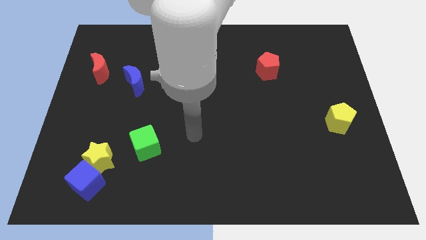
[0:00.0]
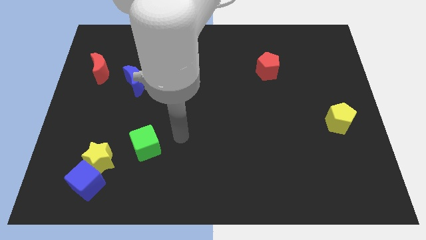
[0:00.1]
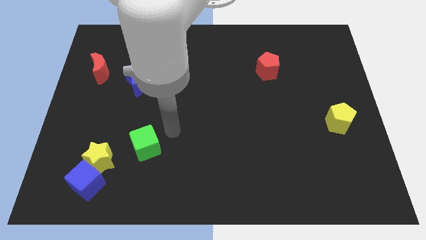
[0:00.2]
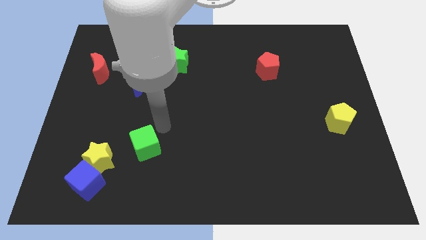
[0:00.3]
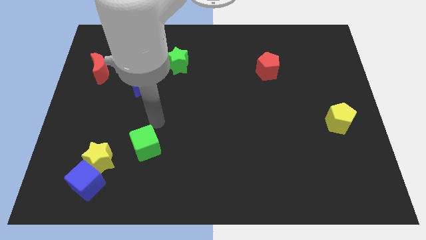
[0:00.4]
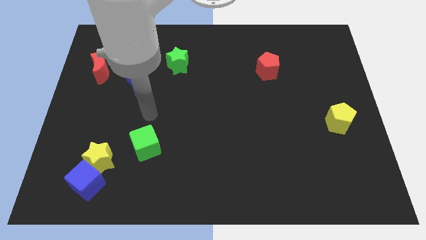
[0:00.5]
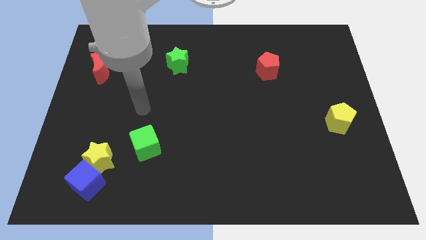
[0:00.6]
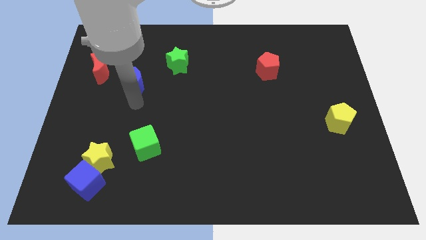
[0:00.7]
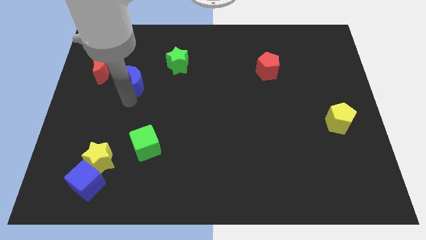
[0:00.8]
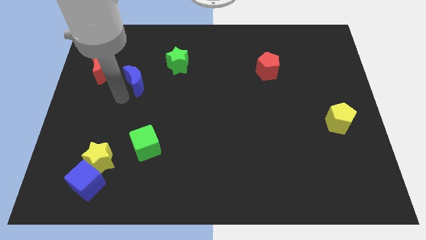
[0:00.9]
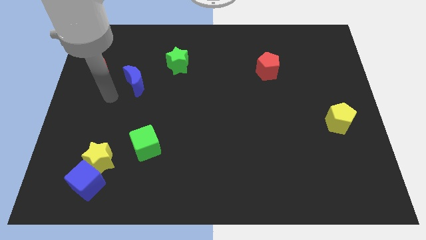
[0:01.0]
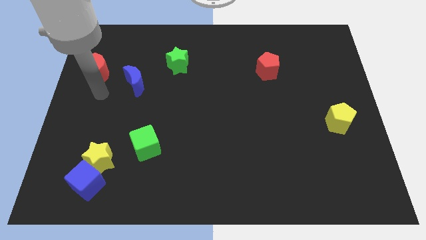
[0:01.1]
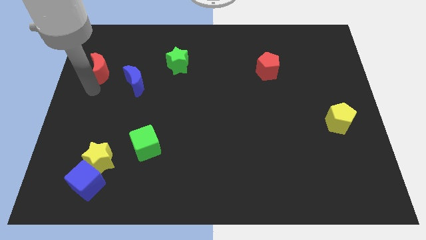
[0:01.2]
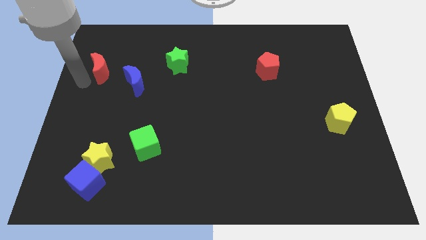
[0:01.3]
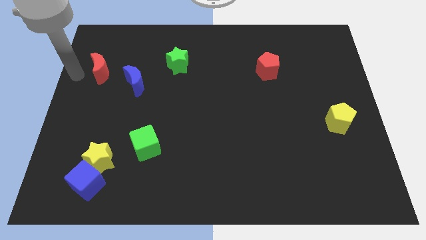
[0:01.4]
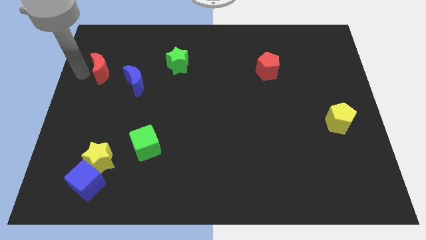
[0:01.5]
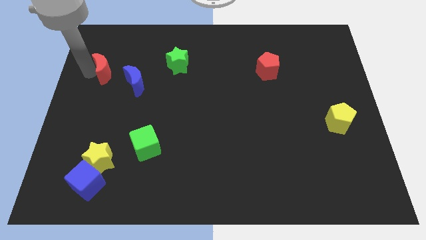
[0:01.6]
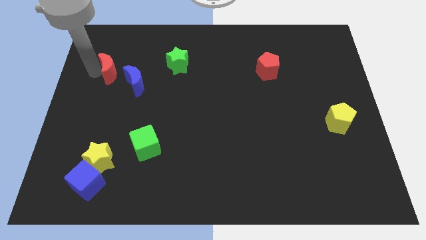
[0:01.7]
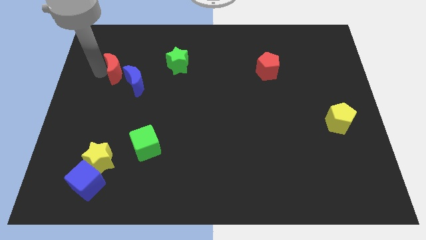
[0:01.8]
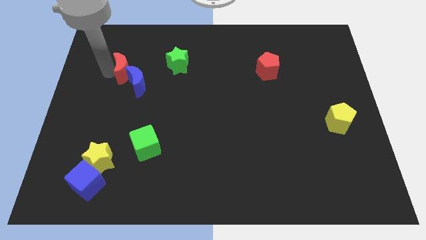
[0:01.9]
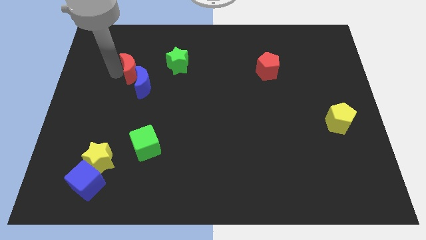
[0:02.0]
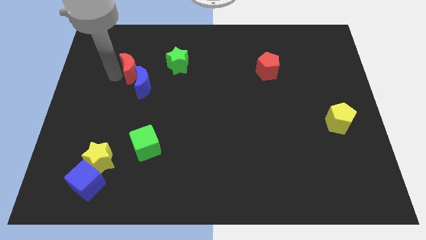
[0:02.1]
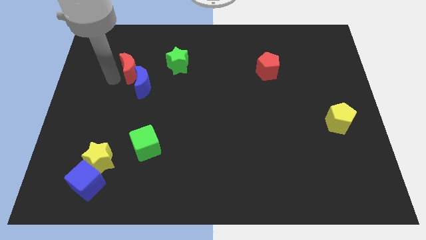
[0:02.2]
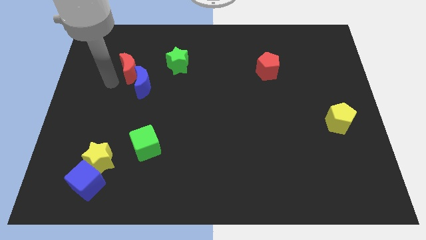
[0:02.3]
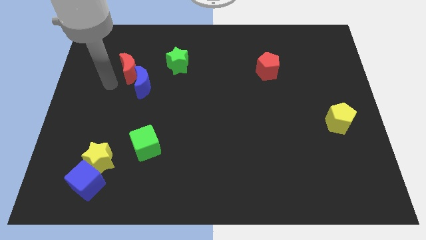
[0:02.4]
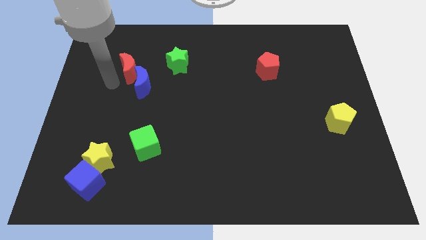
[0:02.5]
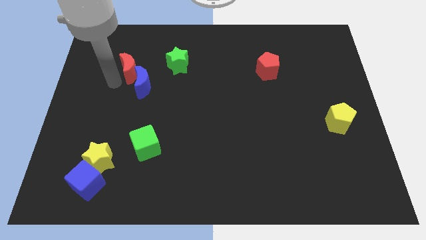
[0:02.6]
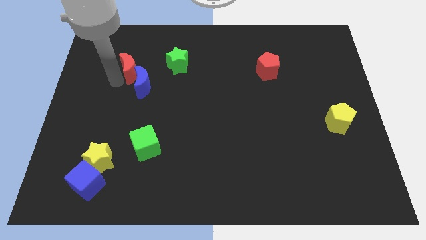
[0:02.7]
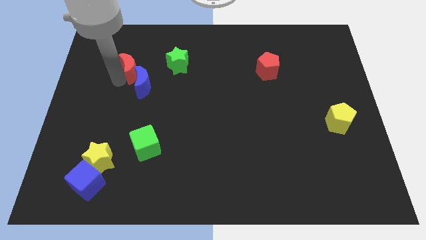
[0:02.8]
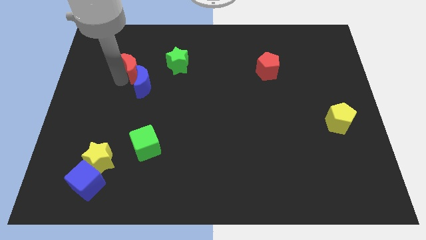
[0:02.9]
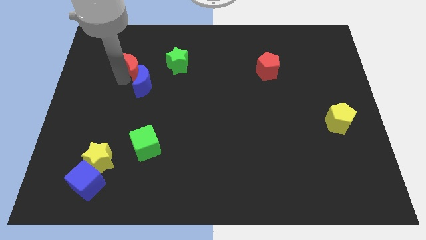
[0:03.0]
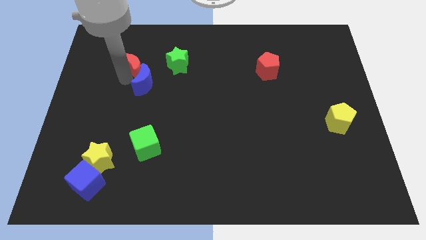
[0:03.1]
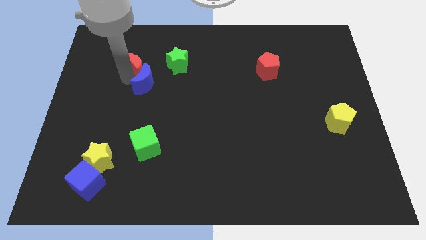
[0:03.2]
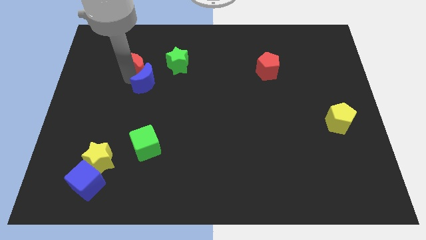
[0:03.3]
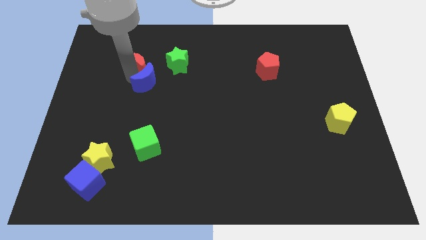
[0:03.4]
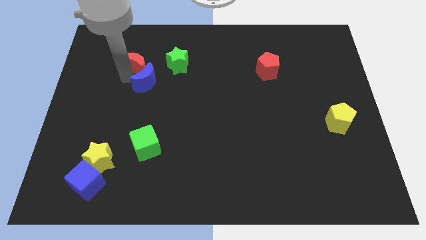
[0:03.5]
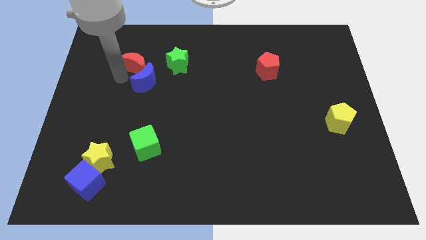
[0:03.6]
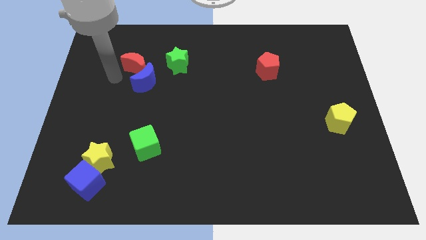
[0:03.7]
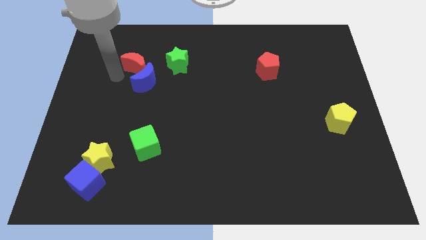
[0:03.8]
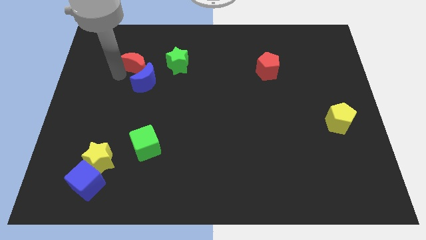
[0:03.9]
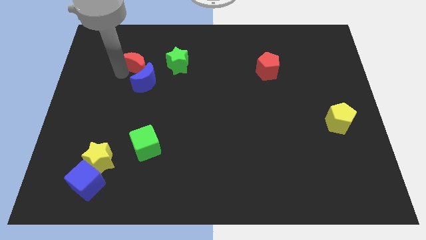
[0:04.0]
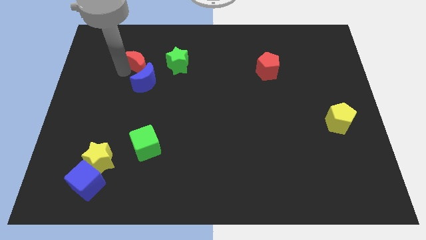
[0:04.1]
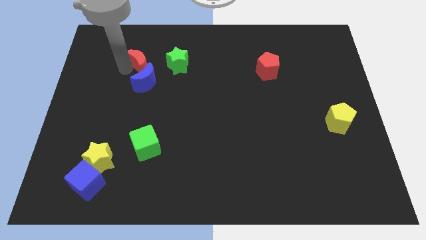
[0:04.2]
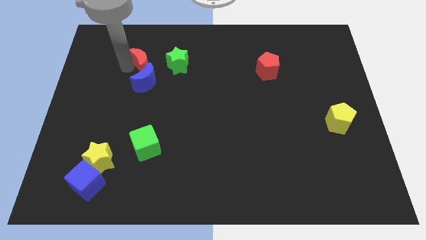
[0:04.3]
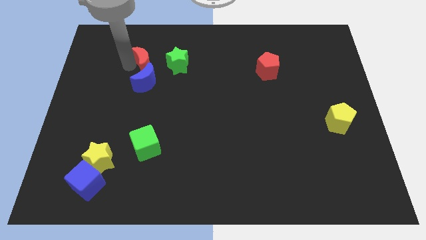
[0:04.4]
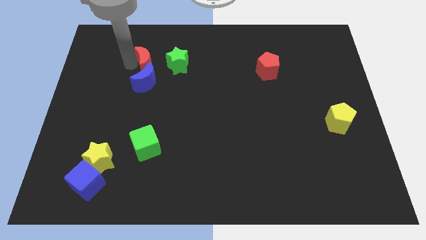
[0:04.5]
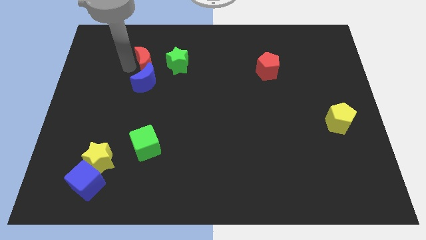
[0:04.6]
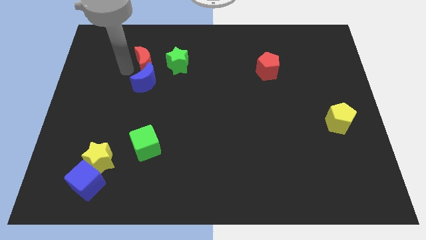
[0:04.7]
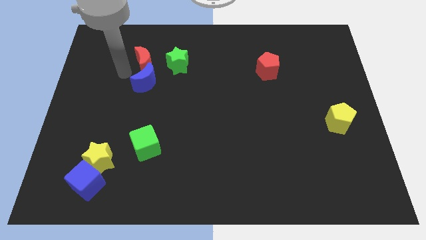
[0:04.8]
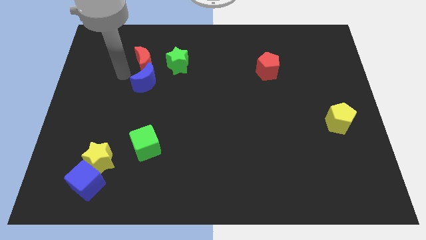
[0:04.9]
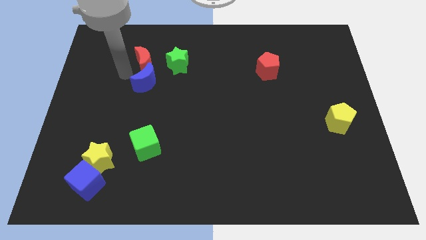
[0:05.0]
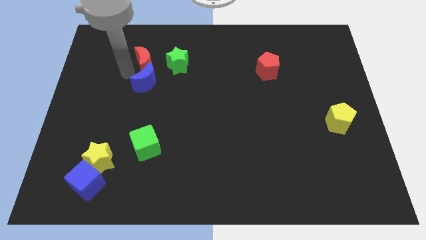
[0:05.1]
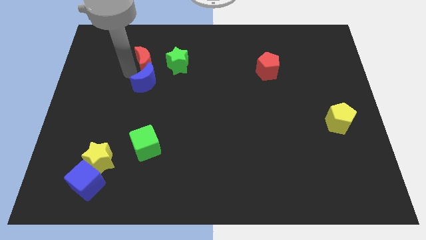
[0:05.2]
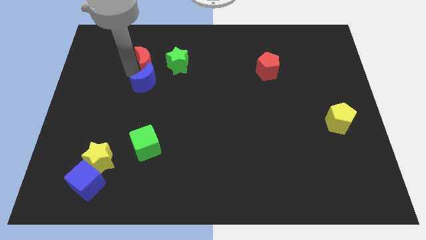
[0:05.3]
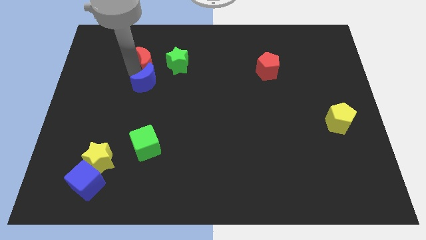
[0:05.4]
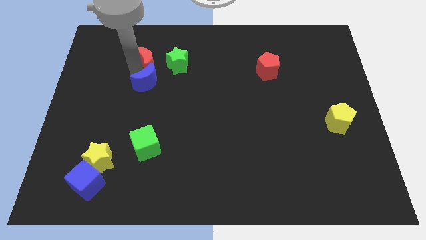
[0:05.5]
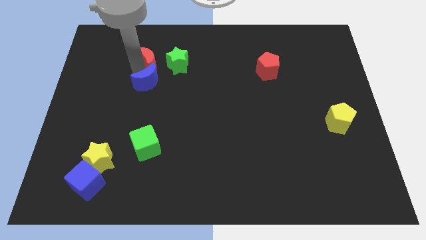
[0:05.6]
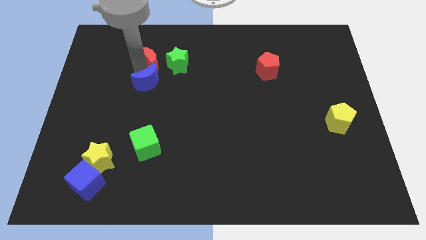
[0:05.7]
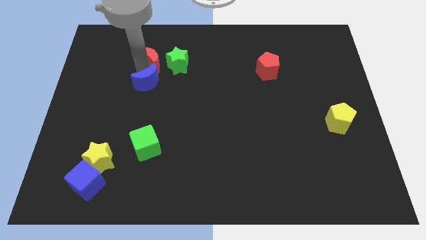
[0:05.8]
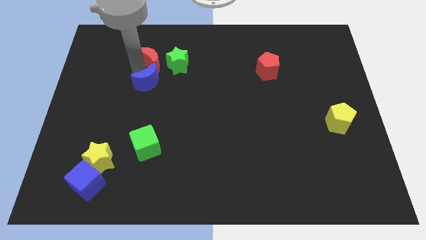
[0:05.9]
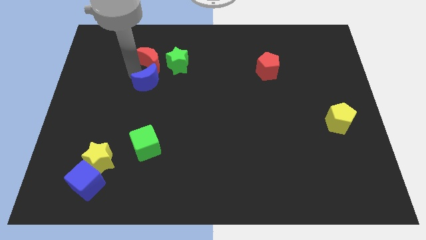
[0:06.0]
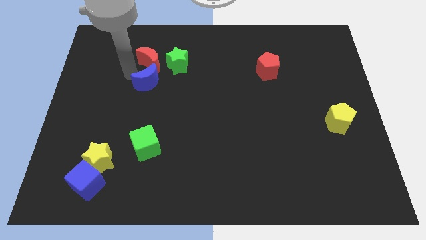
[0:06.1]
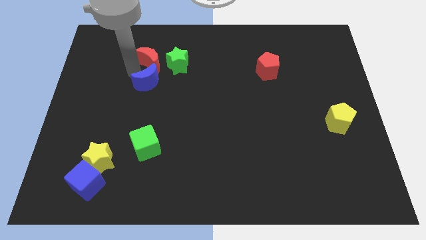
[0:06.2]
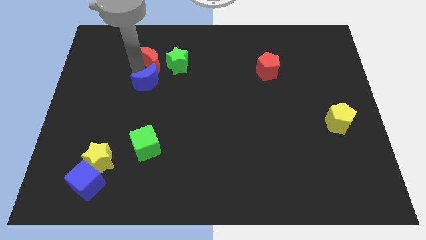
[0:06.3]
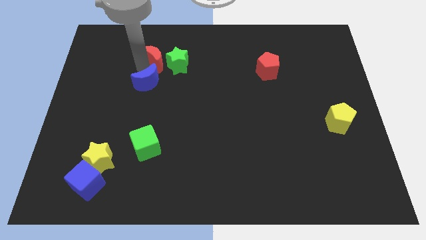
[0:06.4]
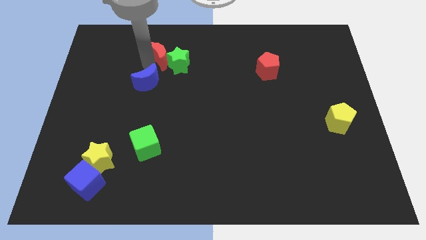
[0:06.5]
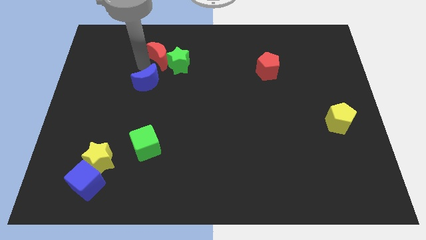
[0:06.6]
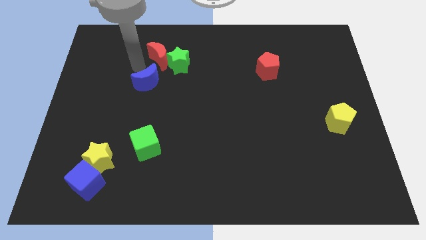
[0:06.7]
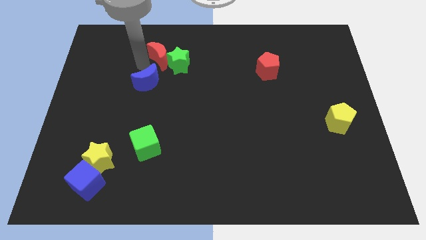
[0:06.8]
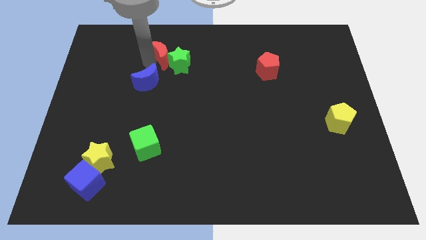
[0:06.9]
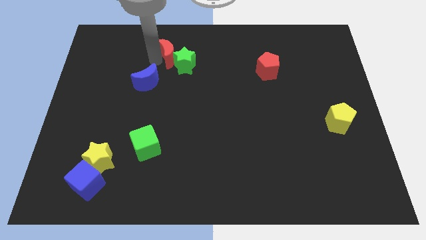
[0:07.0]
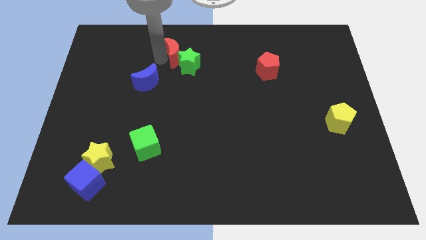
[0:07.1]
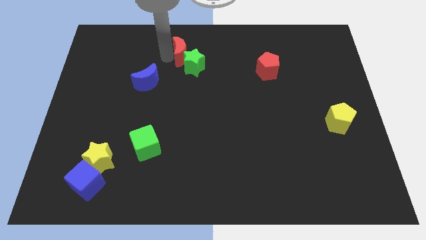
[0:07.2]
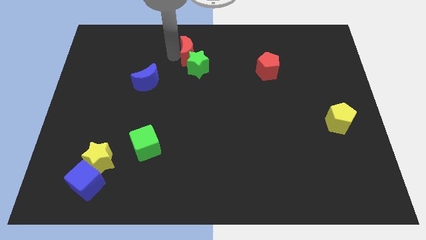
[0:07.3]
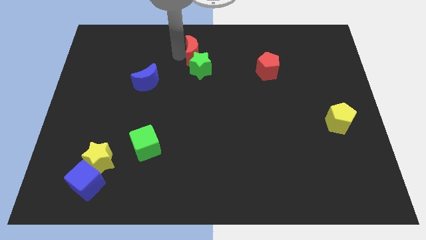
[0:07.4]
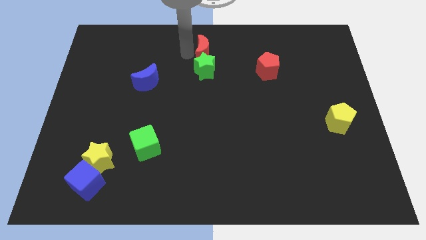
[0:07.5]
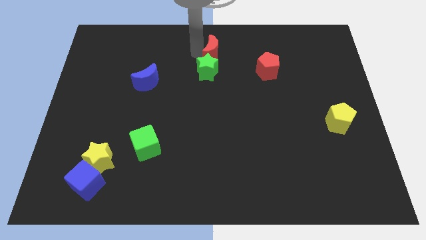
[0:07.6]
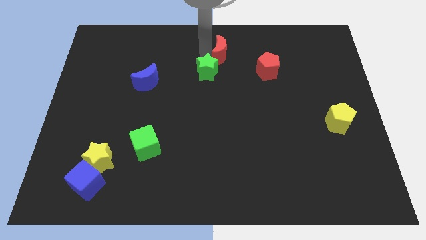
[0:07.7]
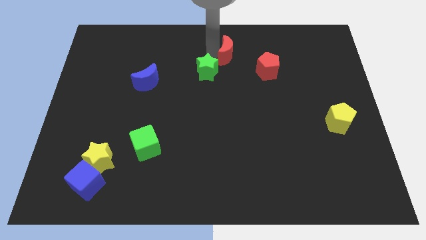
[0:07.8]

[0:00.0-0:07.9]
slide the red moon to the top left of the red pentagon

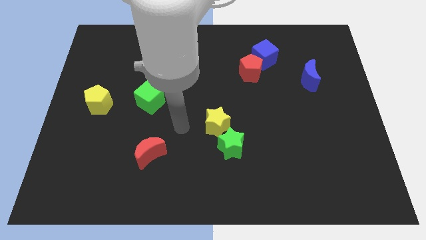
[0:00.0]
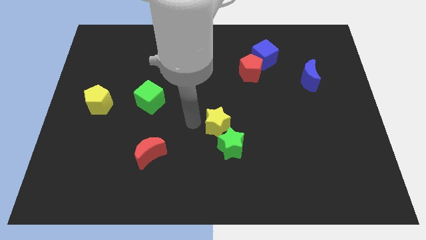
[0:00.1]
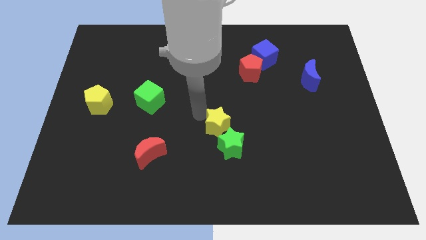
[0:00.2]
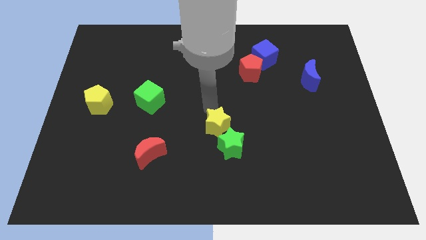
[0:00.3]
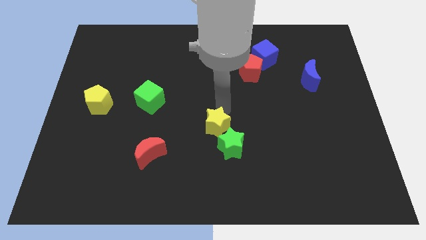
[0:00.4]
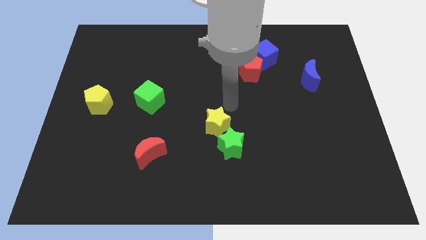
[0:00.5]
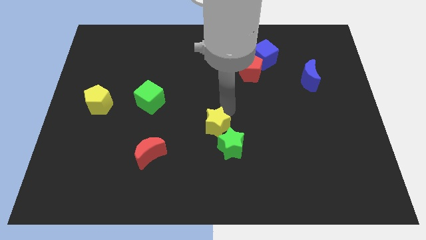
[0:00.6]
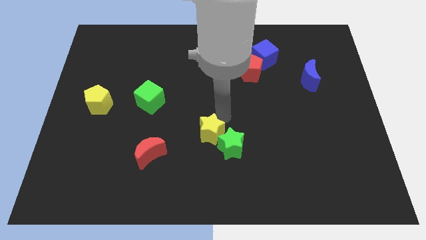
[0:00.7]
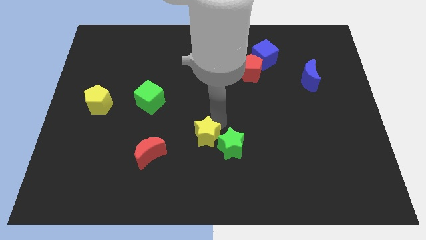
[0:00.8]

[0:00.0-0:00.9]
push the yellow star to the right side of the red moon
